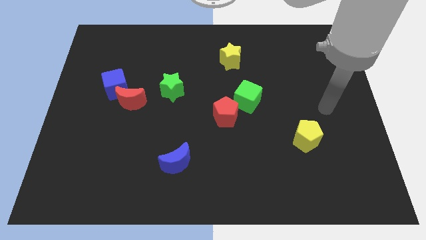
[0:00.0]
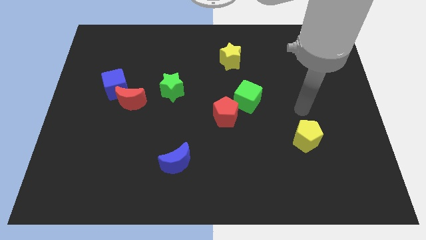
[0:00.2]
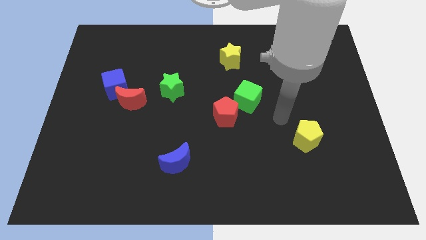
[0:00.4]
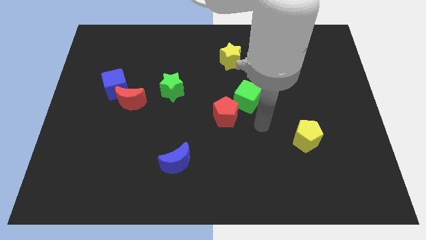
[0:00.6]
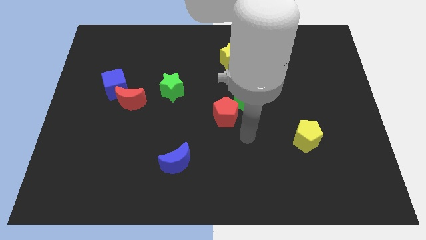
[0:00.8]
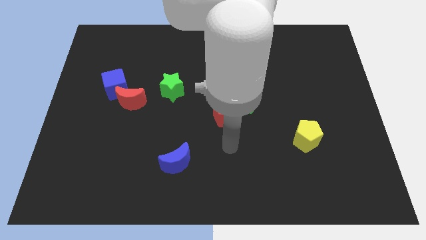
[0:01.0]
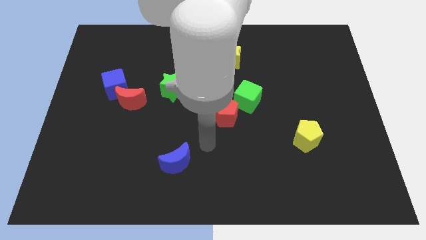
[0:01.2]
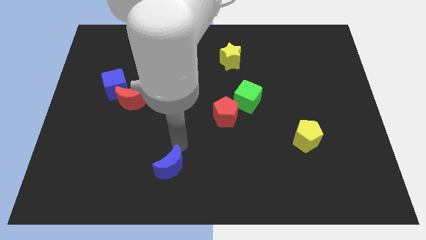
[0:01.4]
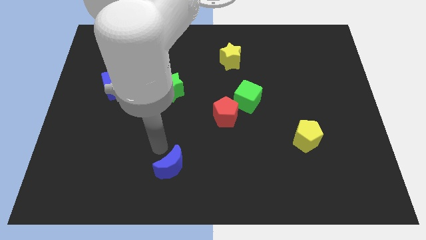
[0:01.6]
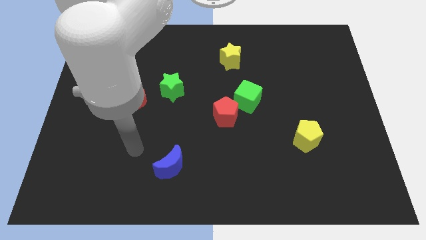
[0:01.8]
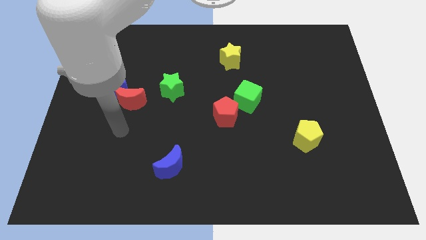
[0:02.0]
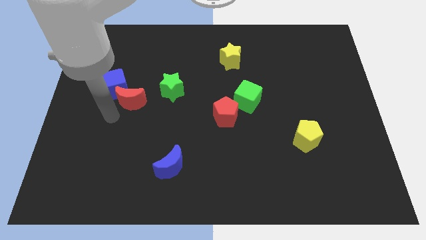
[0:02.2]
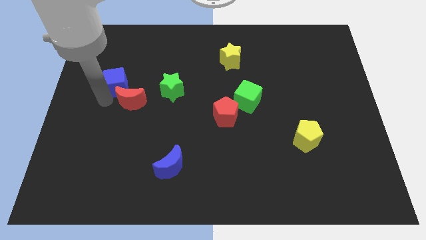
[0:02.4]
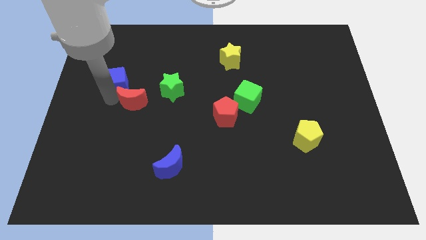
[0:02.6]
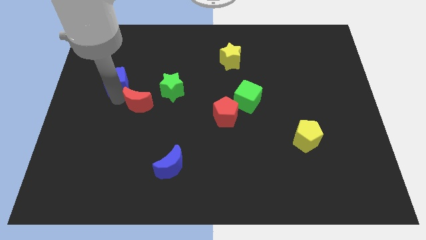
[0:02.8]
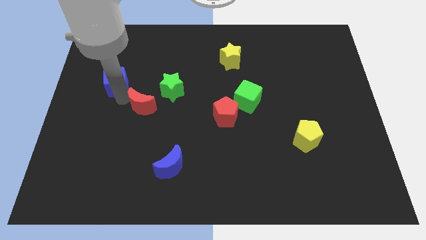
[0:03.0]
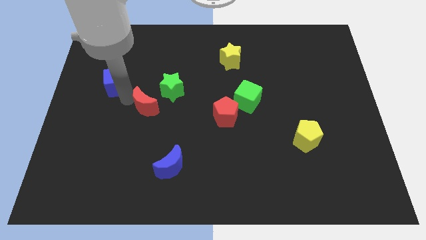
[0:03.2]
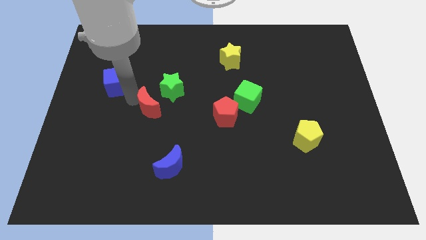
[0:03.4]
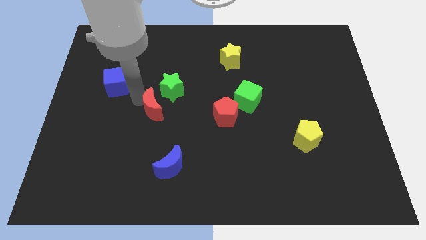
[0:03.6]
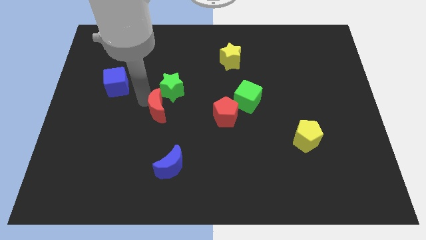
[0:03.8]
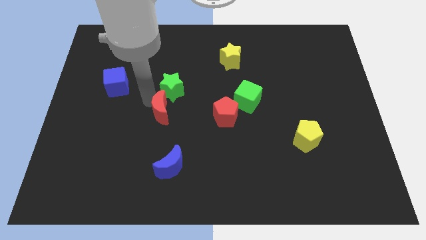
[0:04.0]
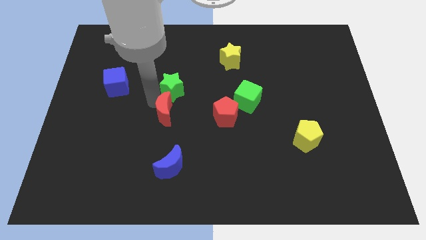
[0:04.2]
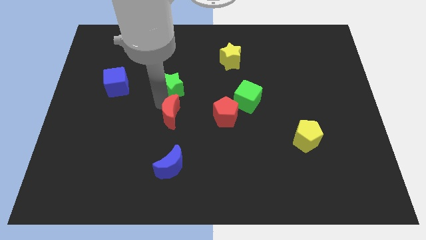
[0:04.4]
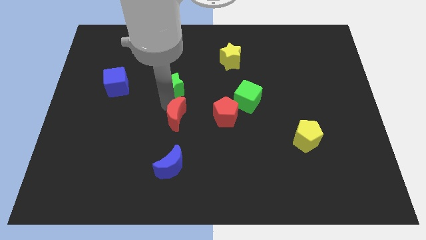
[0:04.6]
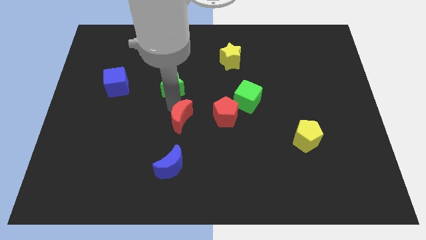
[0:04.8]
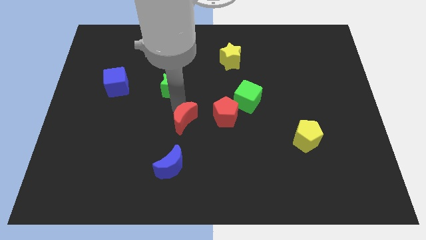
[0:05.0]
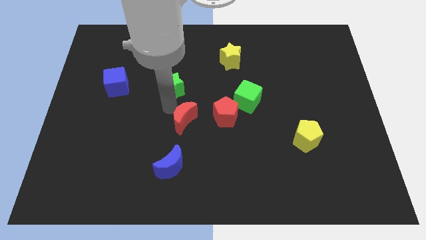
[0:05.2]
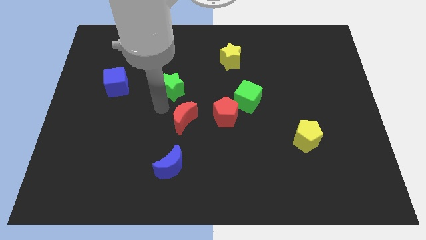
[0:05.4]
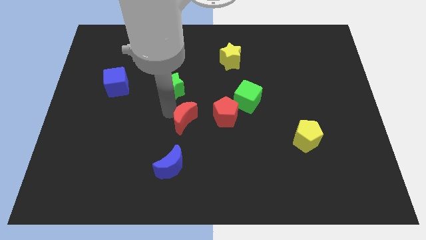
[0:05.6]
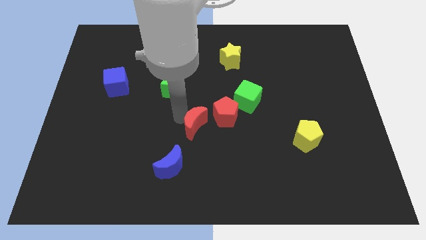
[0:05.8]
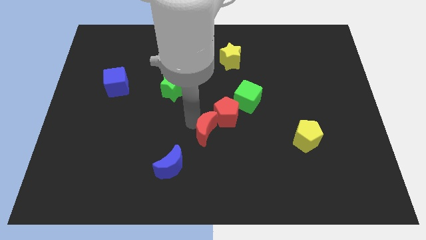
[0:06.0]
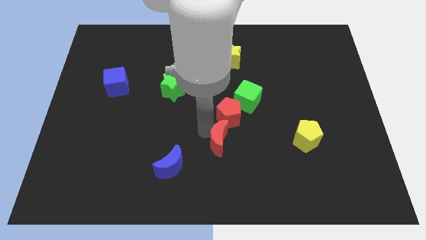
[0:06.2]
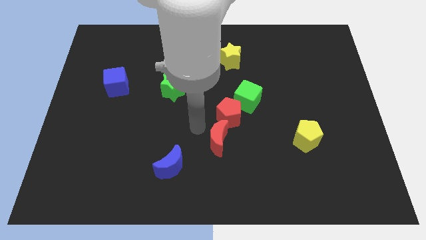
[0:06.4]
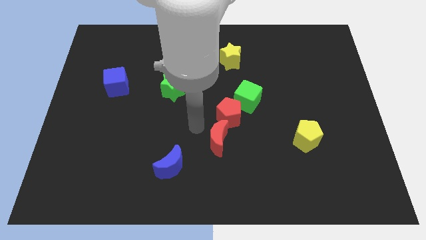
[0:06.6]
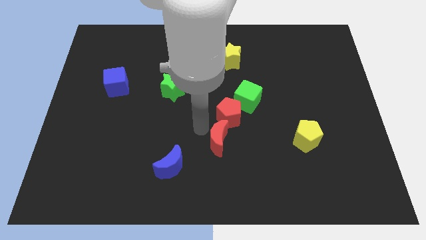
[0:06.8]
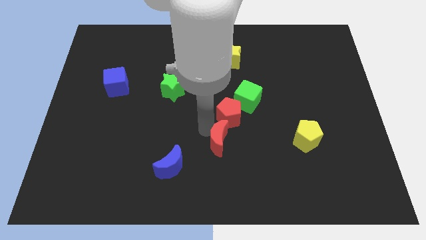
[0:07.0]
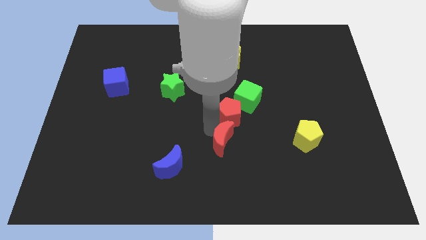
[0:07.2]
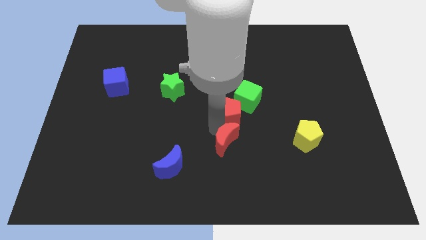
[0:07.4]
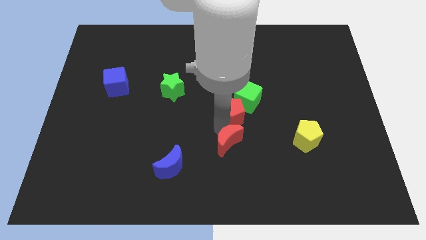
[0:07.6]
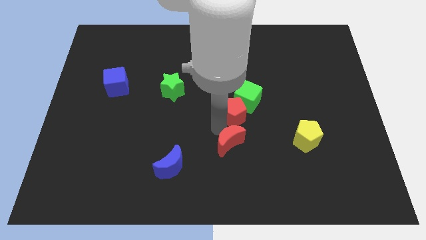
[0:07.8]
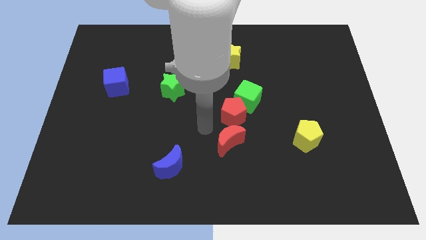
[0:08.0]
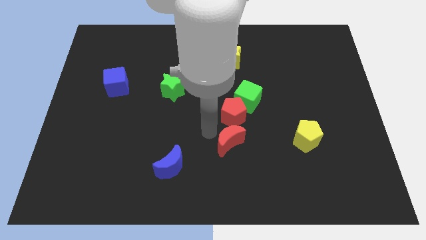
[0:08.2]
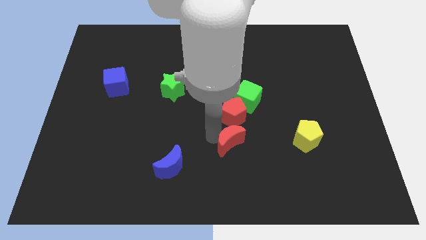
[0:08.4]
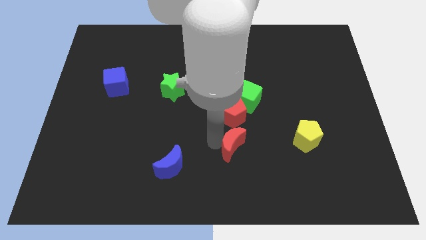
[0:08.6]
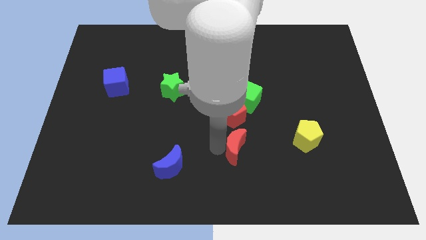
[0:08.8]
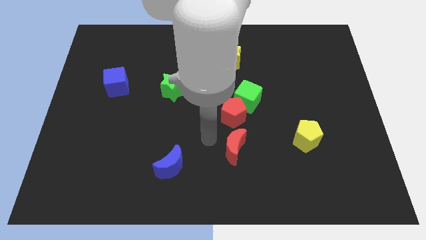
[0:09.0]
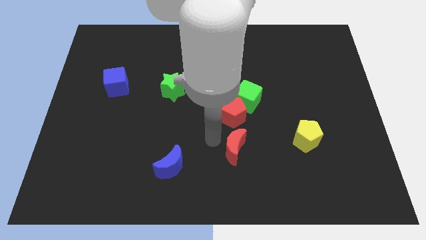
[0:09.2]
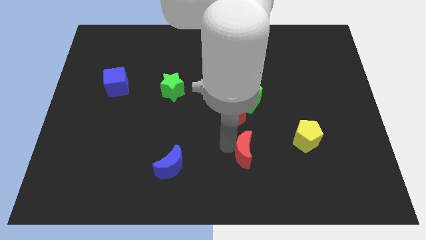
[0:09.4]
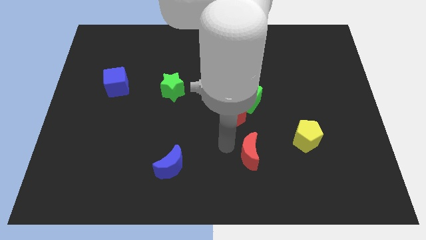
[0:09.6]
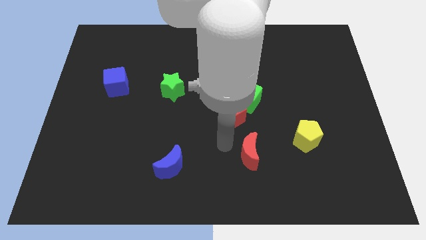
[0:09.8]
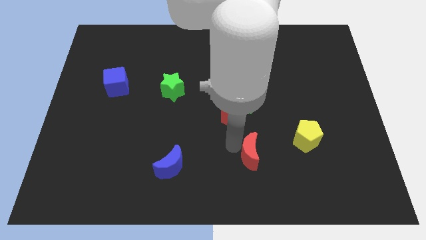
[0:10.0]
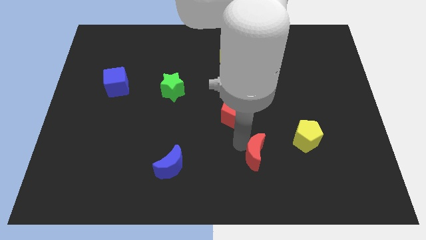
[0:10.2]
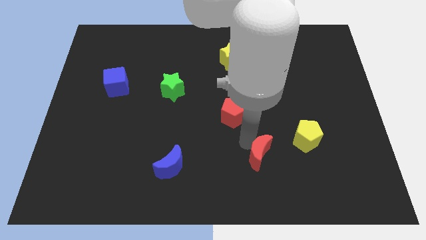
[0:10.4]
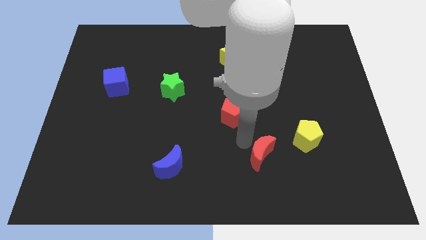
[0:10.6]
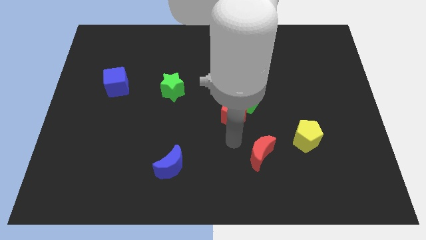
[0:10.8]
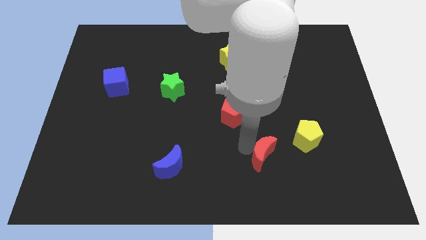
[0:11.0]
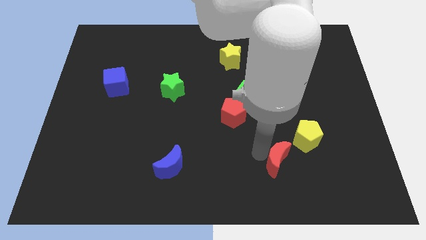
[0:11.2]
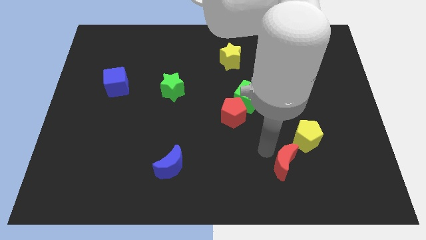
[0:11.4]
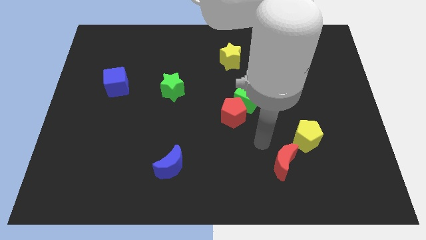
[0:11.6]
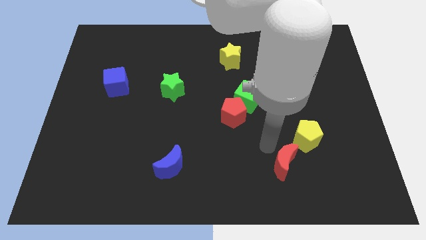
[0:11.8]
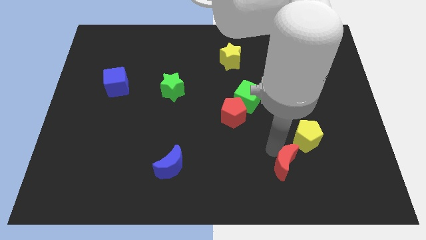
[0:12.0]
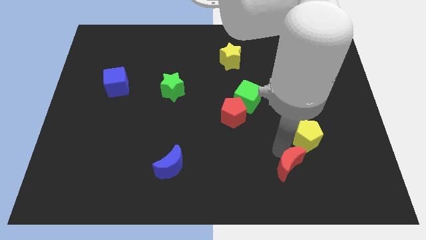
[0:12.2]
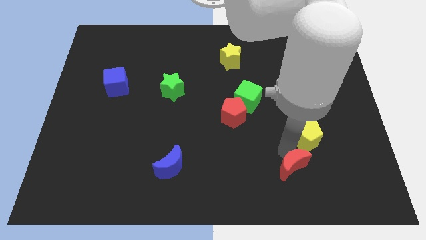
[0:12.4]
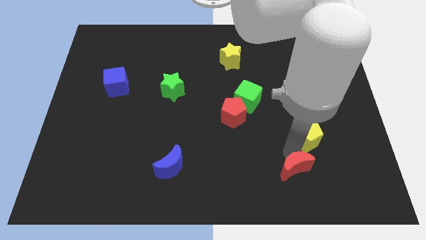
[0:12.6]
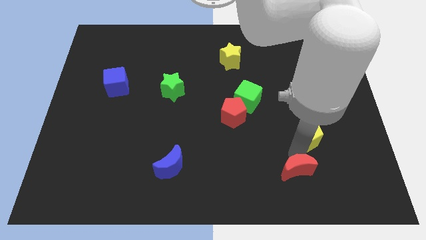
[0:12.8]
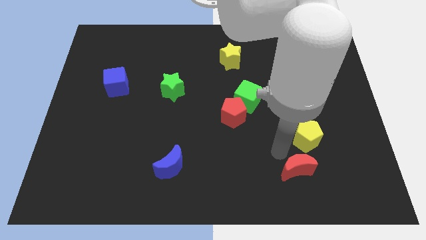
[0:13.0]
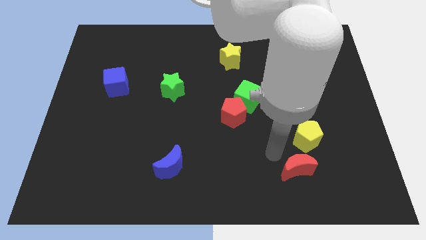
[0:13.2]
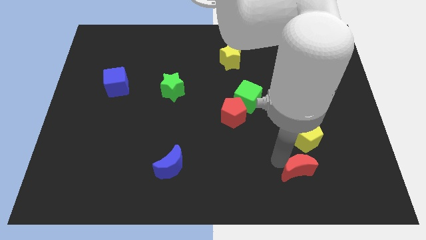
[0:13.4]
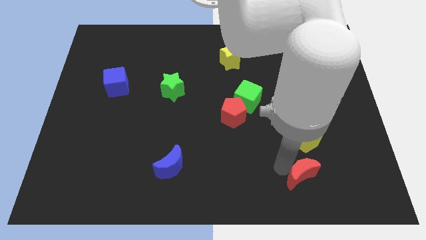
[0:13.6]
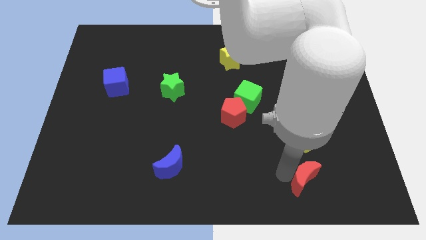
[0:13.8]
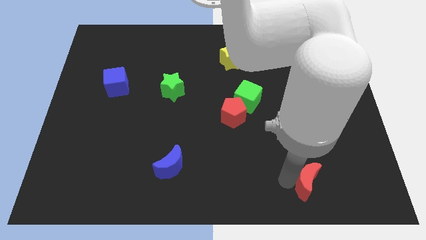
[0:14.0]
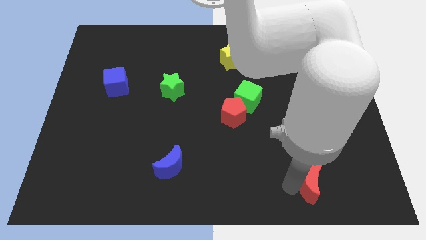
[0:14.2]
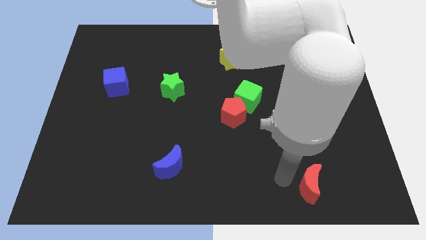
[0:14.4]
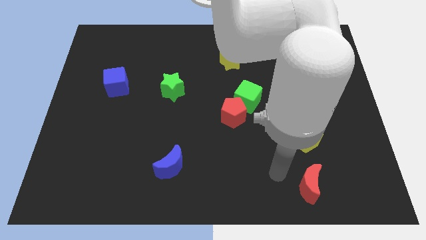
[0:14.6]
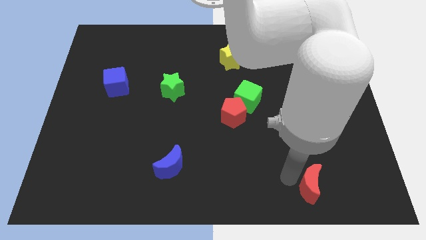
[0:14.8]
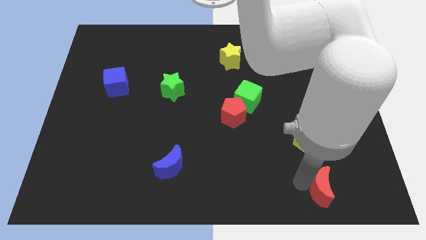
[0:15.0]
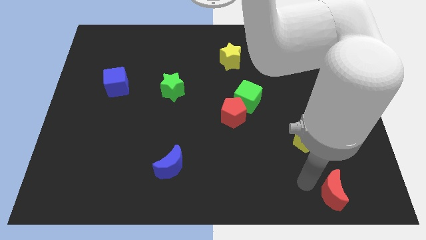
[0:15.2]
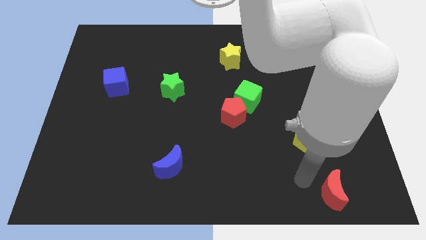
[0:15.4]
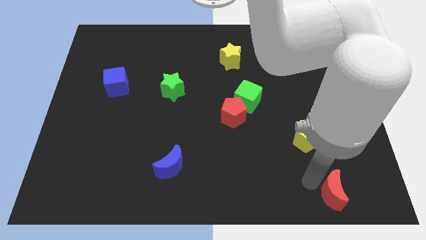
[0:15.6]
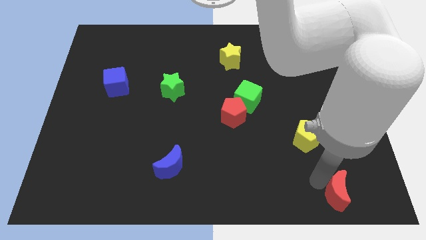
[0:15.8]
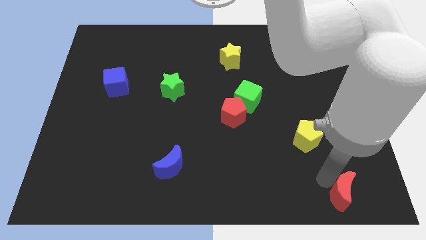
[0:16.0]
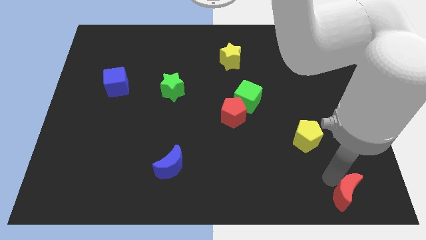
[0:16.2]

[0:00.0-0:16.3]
slide the red moon to the bottom right corner
